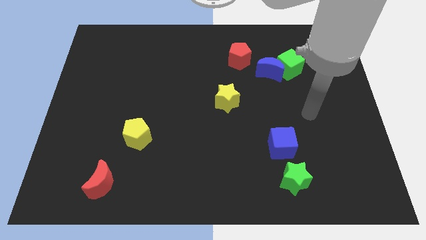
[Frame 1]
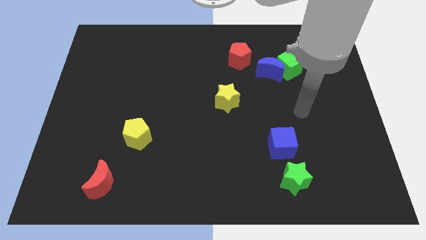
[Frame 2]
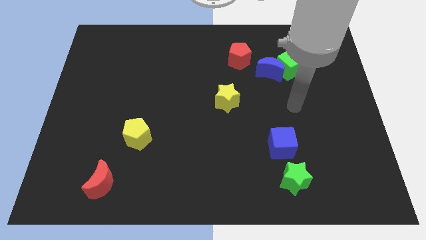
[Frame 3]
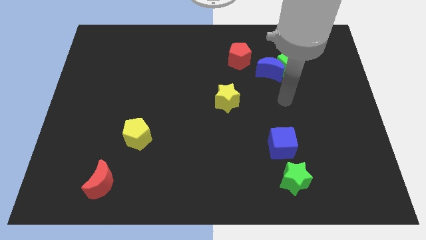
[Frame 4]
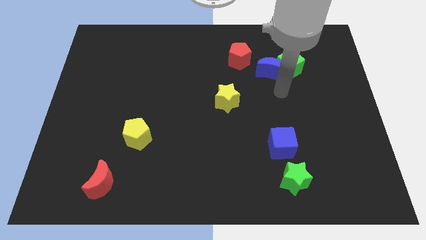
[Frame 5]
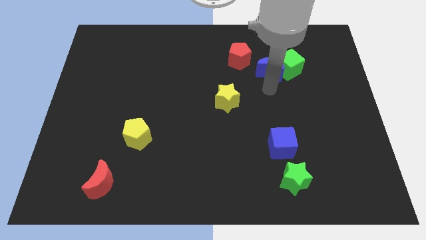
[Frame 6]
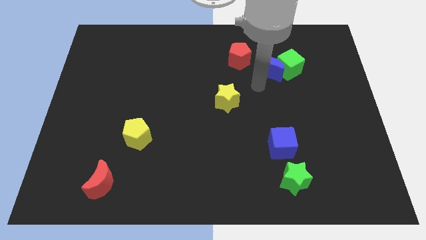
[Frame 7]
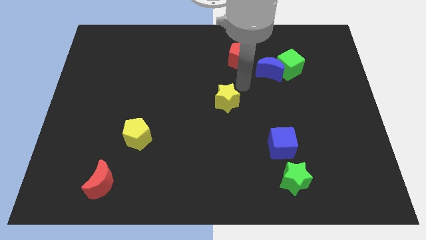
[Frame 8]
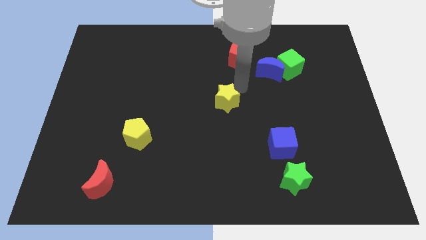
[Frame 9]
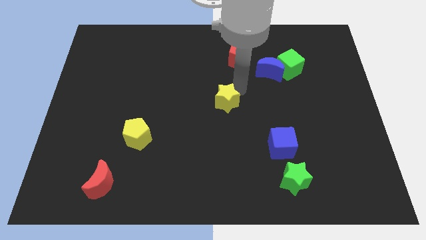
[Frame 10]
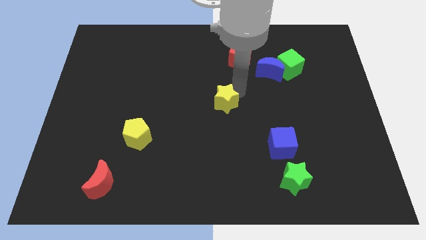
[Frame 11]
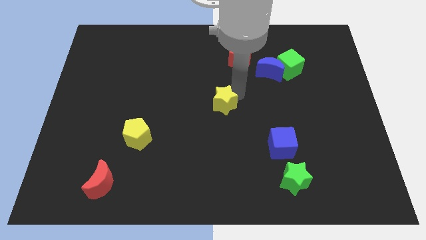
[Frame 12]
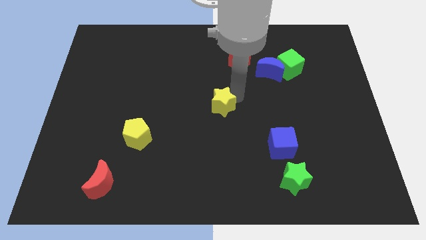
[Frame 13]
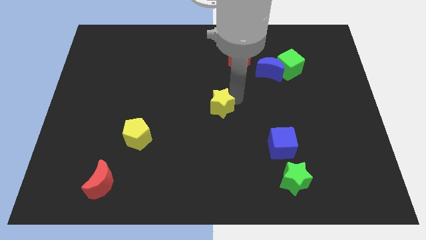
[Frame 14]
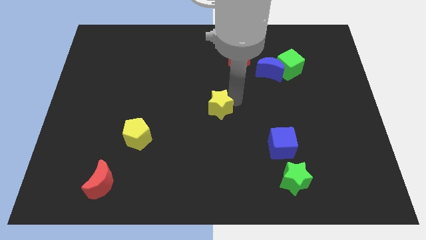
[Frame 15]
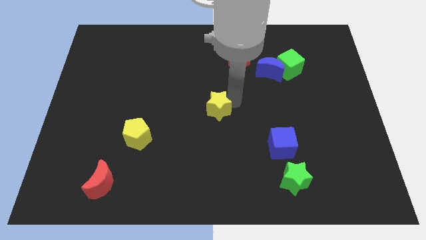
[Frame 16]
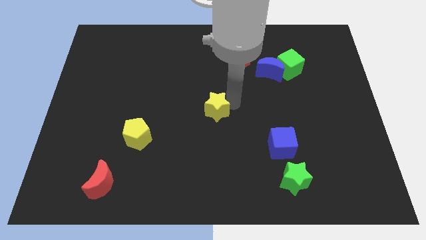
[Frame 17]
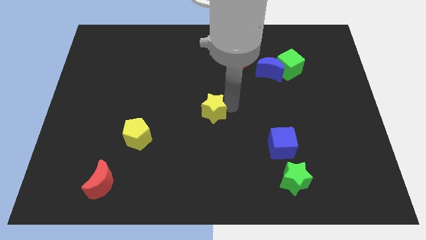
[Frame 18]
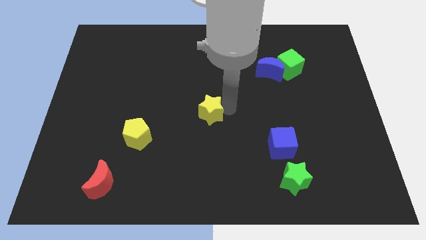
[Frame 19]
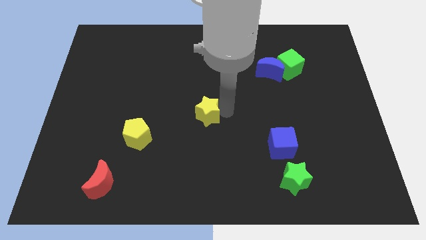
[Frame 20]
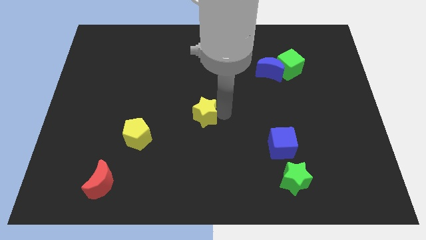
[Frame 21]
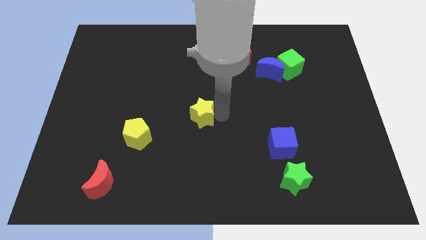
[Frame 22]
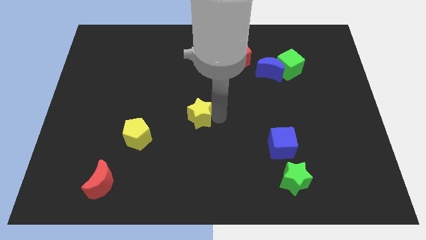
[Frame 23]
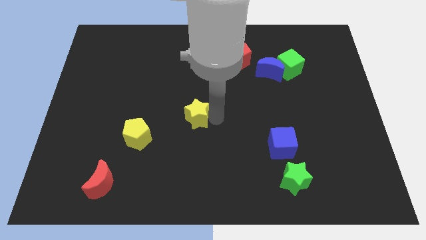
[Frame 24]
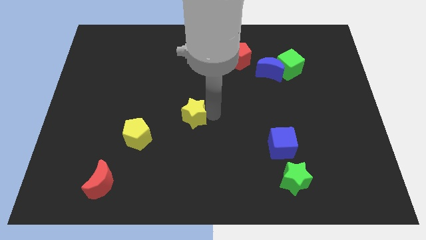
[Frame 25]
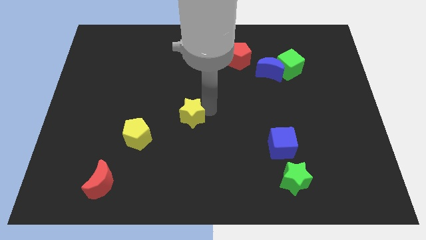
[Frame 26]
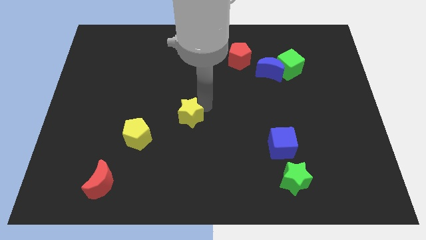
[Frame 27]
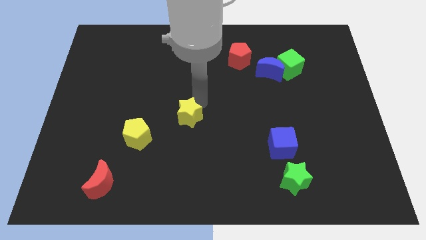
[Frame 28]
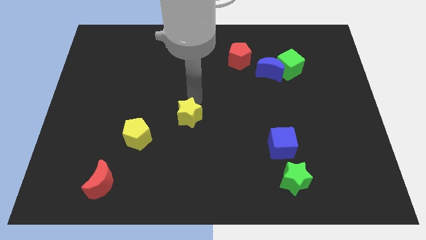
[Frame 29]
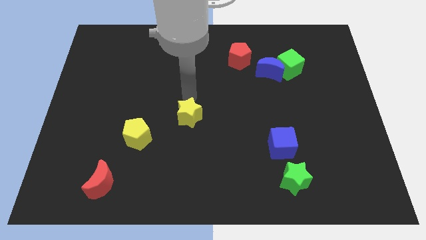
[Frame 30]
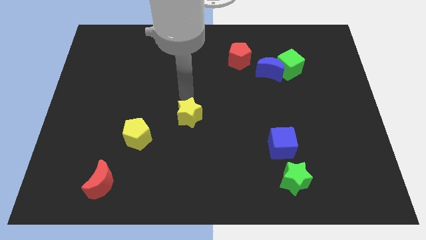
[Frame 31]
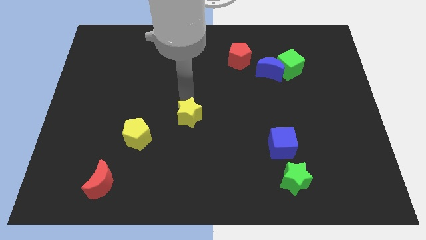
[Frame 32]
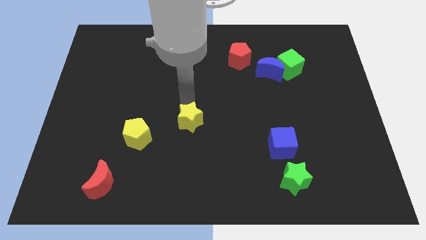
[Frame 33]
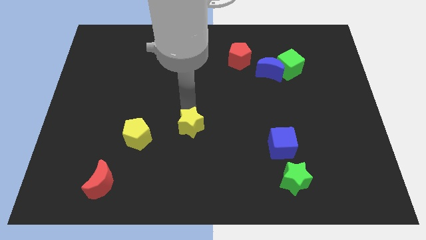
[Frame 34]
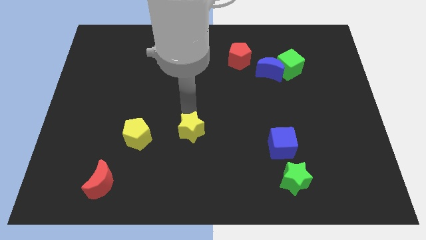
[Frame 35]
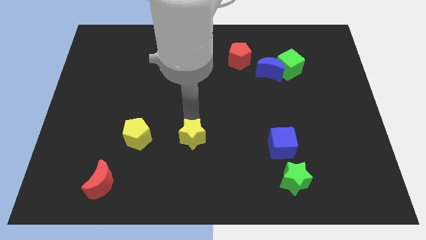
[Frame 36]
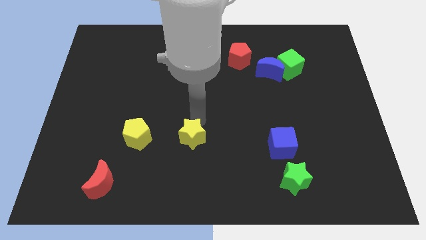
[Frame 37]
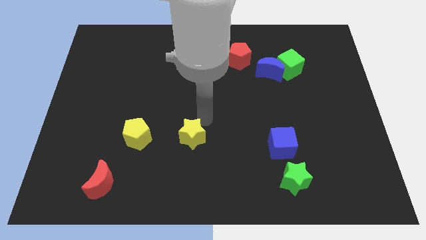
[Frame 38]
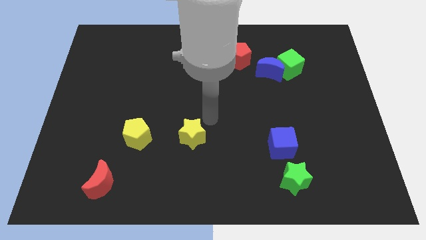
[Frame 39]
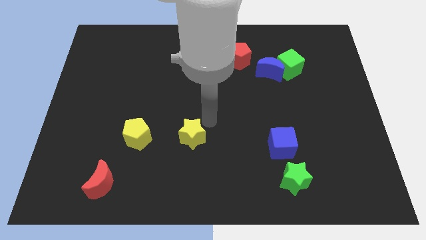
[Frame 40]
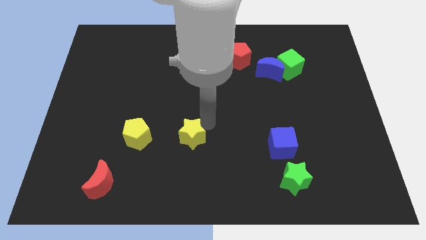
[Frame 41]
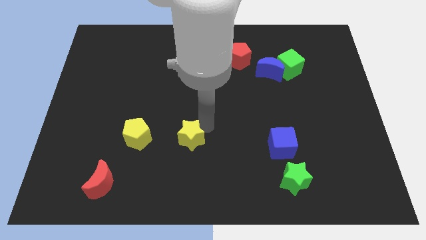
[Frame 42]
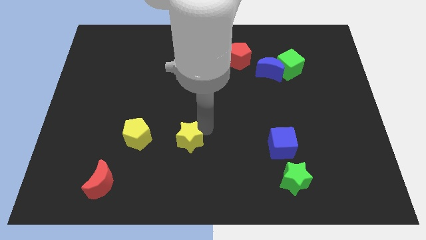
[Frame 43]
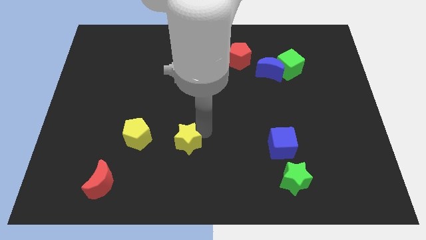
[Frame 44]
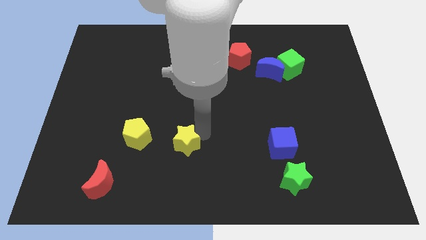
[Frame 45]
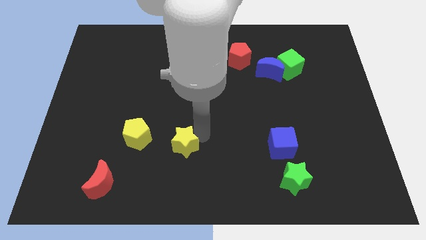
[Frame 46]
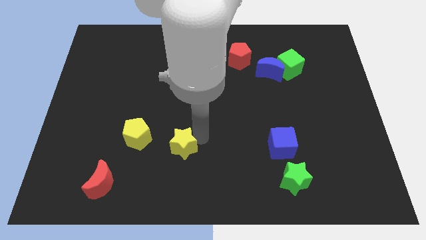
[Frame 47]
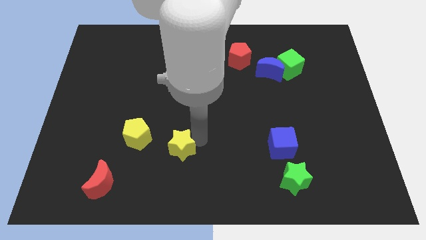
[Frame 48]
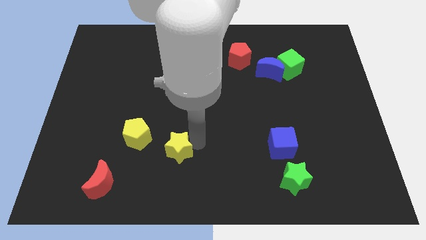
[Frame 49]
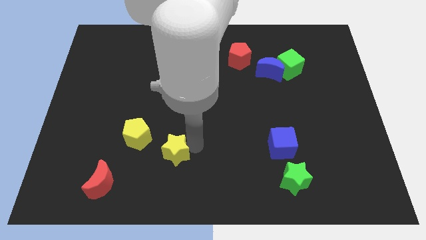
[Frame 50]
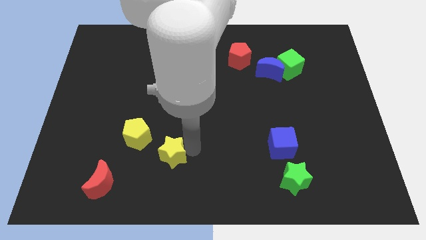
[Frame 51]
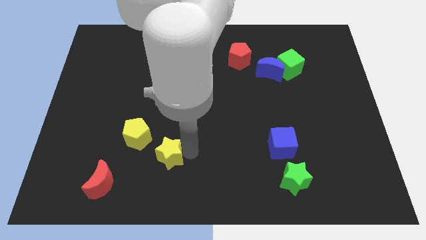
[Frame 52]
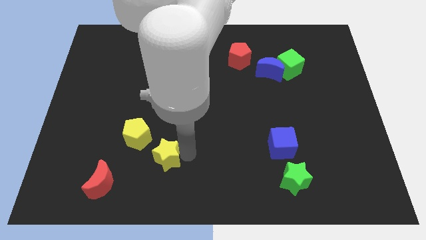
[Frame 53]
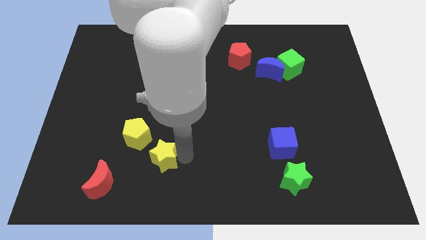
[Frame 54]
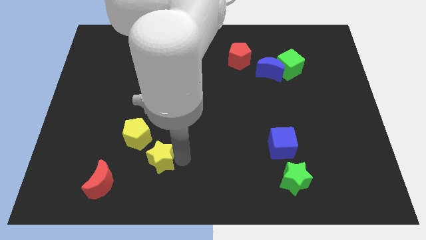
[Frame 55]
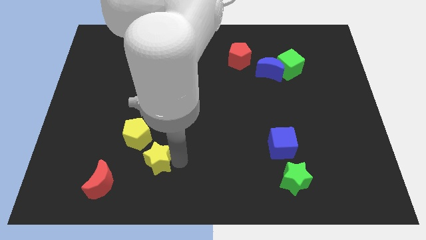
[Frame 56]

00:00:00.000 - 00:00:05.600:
slide the yellow star to the right of the red moon

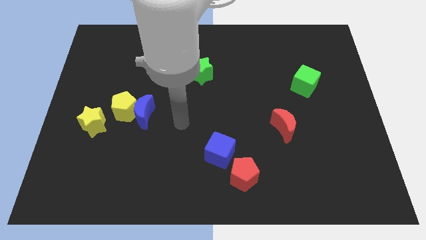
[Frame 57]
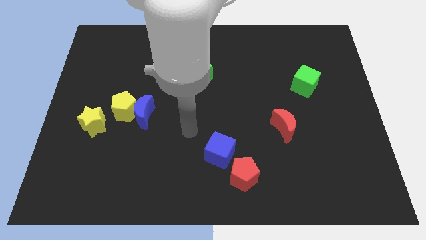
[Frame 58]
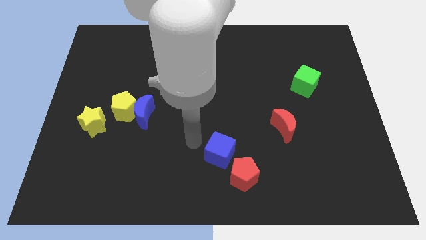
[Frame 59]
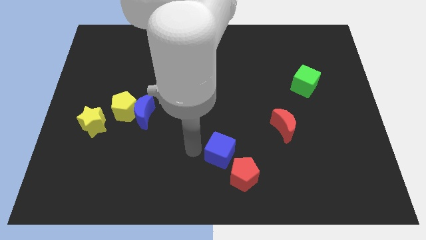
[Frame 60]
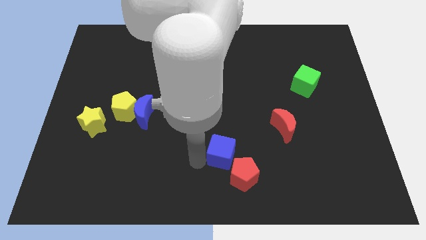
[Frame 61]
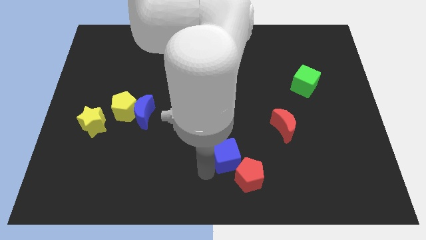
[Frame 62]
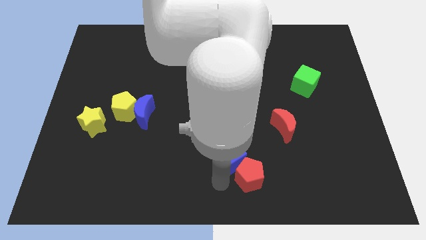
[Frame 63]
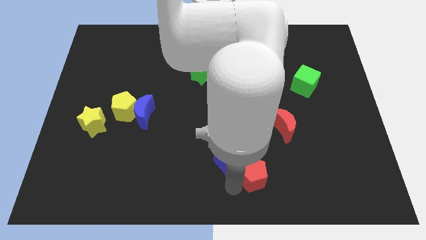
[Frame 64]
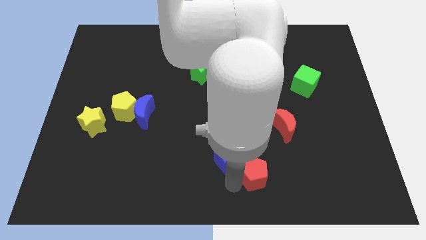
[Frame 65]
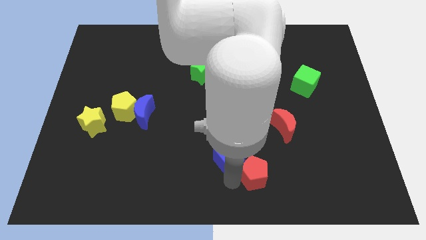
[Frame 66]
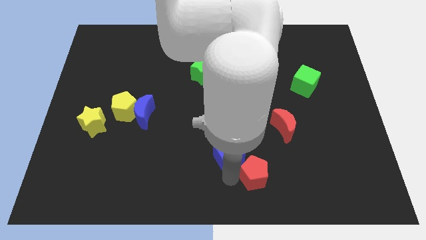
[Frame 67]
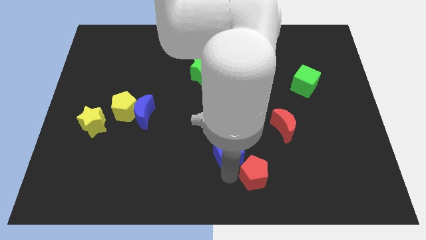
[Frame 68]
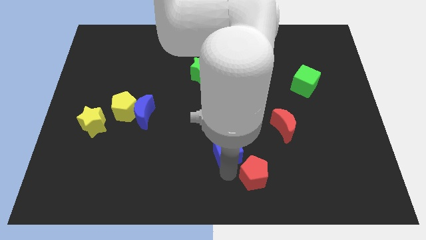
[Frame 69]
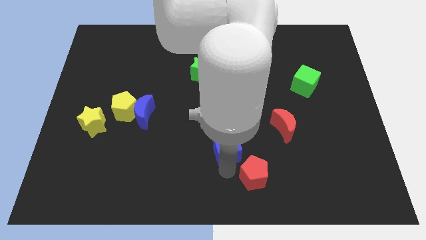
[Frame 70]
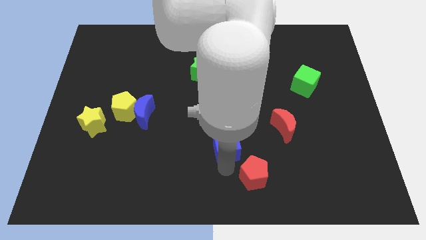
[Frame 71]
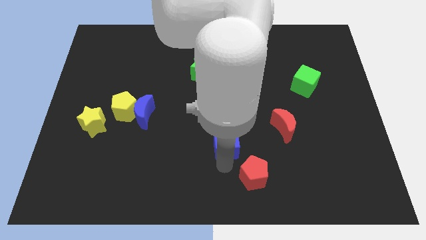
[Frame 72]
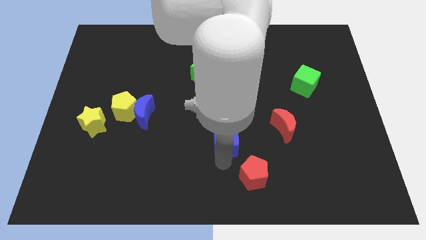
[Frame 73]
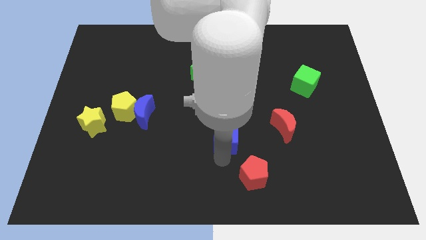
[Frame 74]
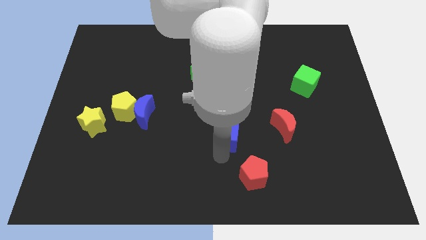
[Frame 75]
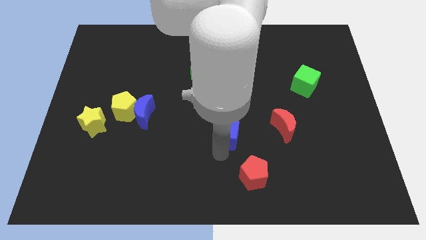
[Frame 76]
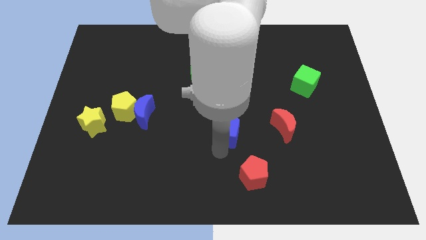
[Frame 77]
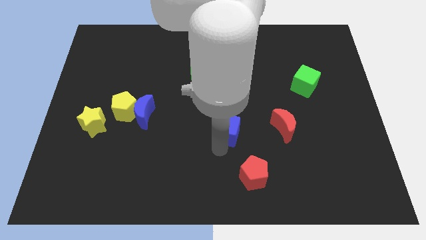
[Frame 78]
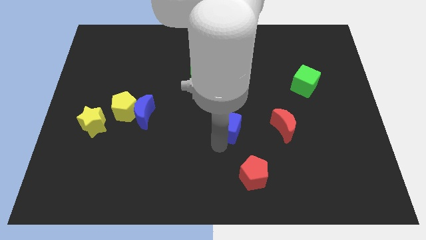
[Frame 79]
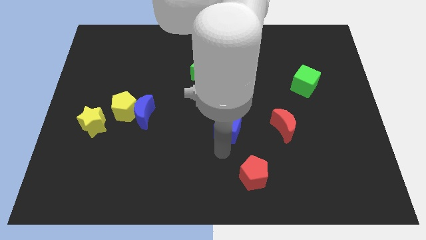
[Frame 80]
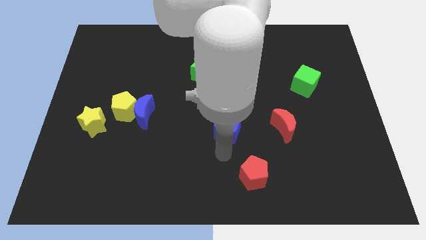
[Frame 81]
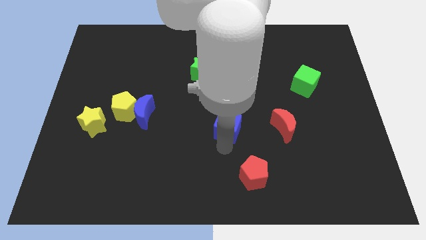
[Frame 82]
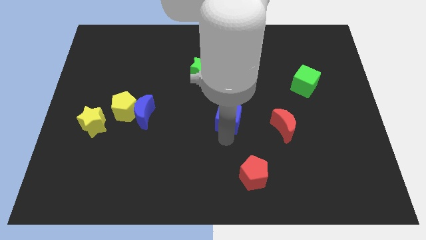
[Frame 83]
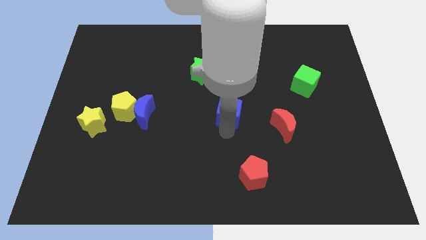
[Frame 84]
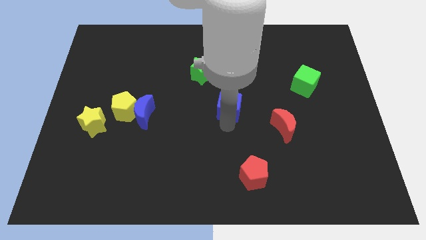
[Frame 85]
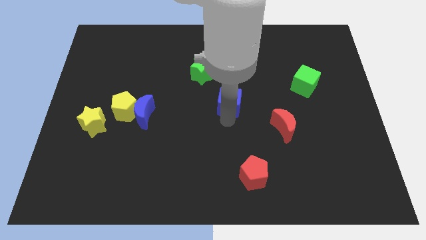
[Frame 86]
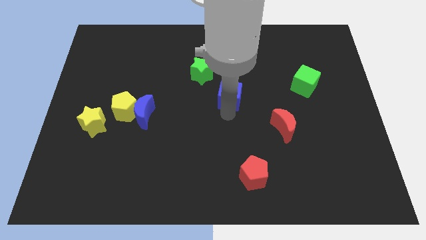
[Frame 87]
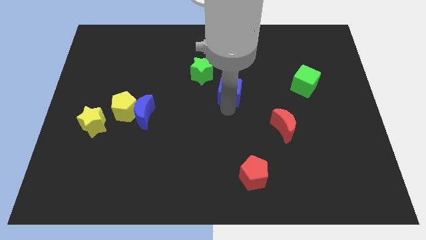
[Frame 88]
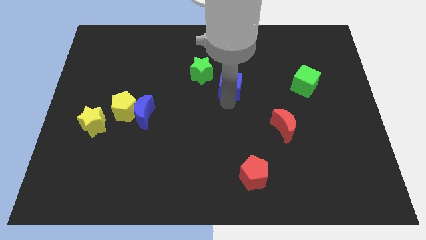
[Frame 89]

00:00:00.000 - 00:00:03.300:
put the blue cube to the right of the green star
